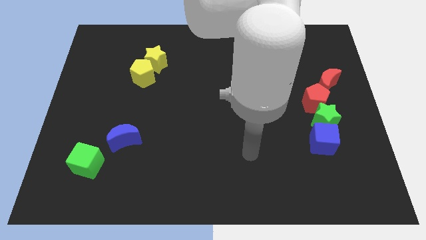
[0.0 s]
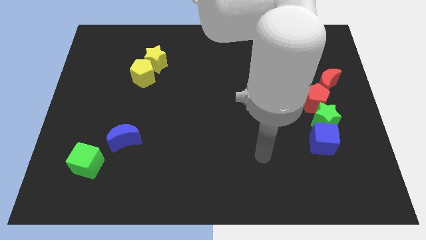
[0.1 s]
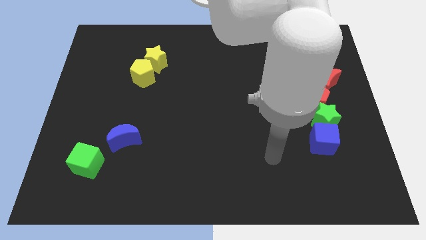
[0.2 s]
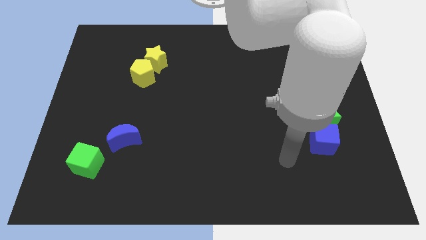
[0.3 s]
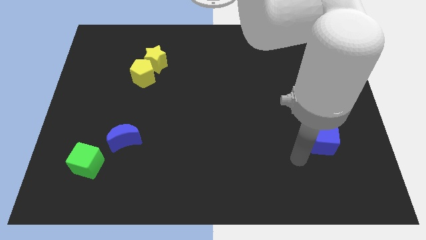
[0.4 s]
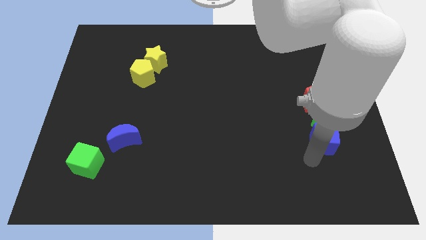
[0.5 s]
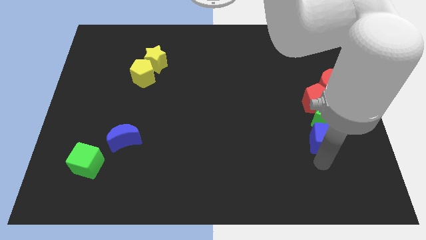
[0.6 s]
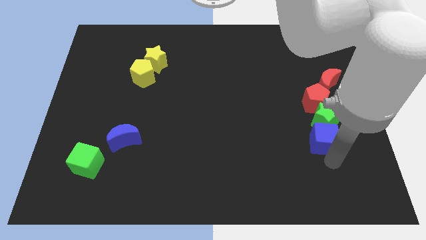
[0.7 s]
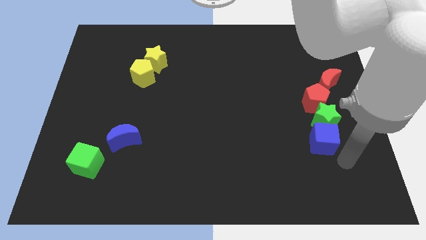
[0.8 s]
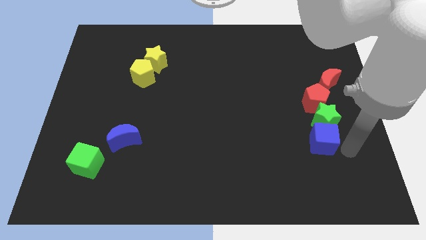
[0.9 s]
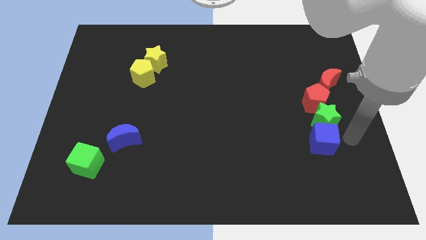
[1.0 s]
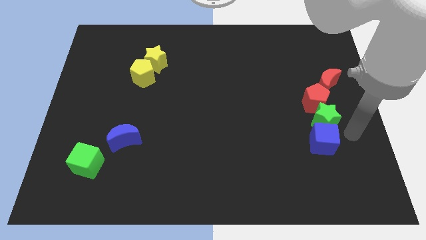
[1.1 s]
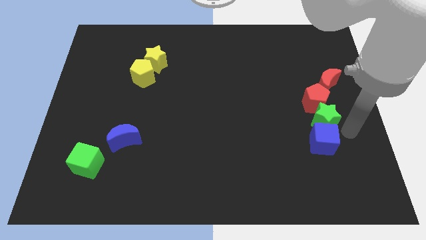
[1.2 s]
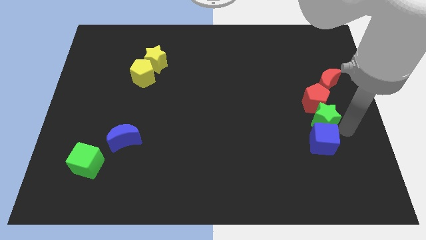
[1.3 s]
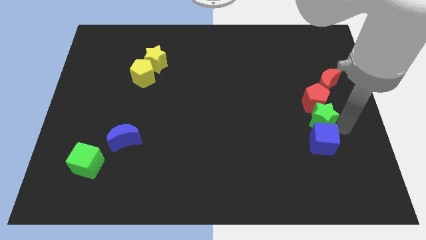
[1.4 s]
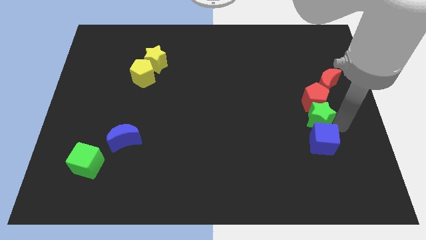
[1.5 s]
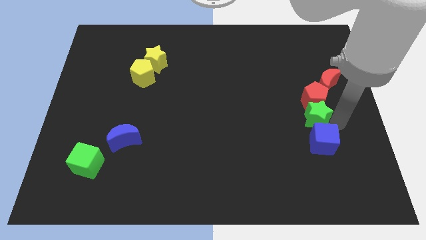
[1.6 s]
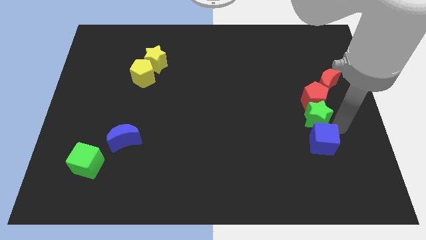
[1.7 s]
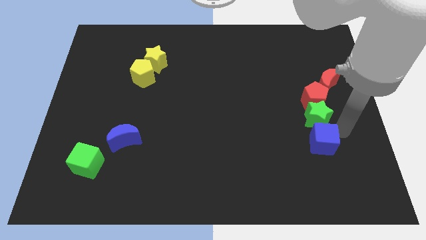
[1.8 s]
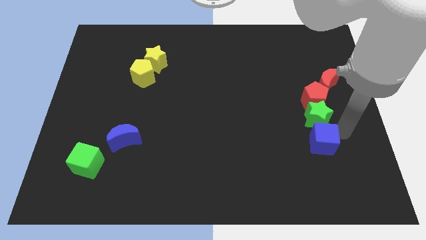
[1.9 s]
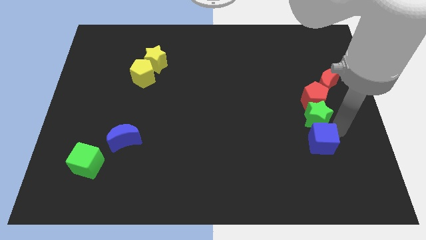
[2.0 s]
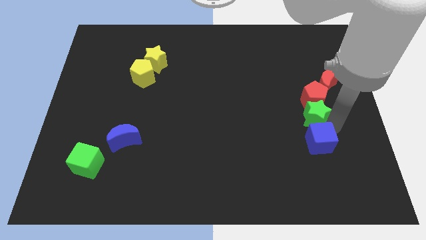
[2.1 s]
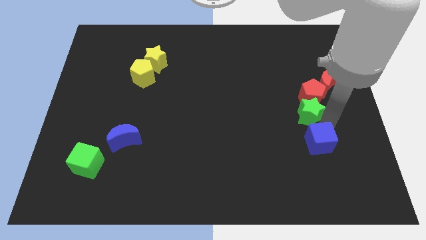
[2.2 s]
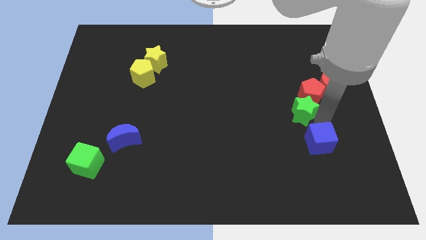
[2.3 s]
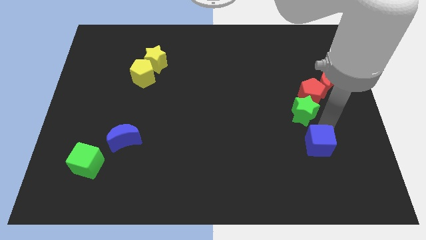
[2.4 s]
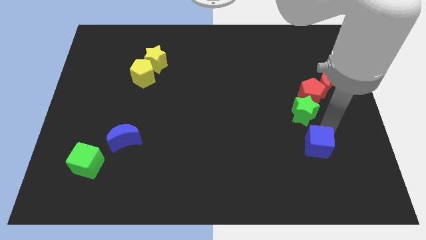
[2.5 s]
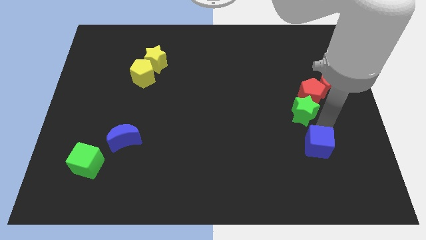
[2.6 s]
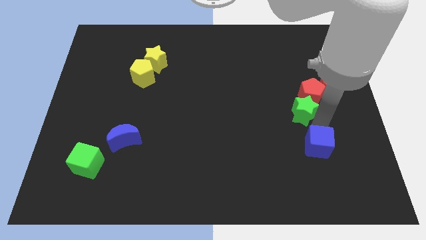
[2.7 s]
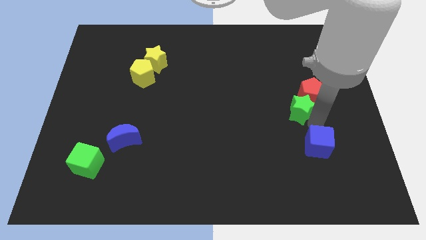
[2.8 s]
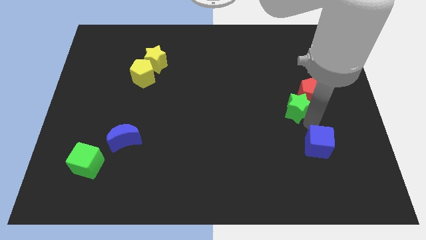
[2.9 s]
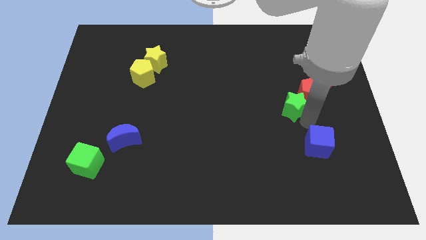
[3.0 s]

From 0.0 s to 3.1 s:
push the green star a bit upwards and to the left diagonally

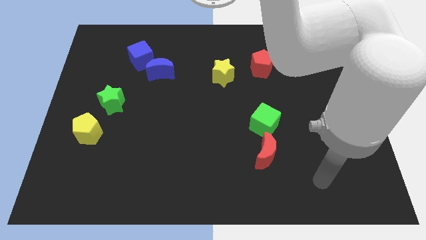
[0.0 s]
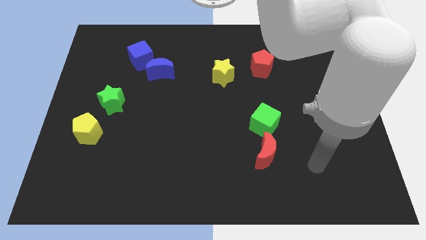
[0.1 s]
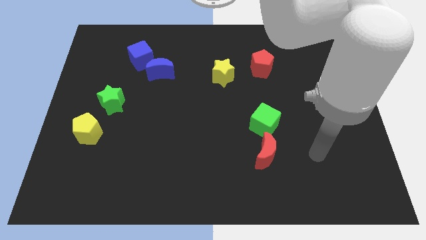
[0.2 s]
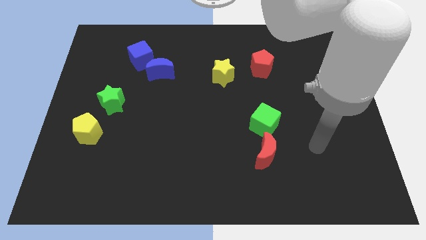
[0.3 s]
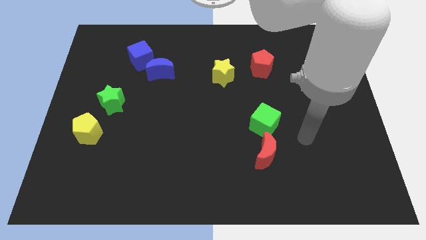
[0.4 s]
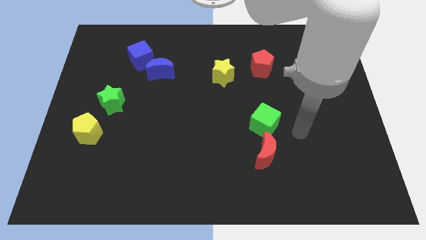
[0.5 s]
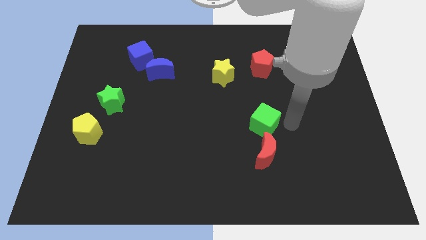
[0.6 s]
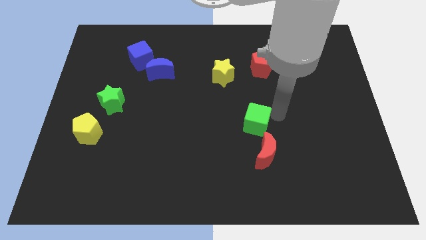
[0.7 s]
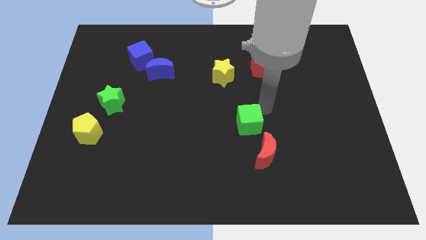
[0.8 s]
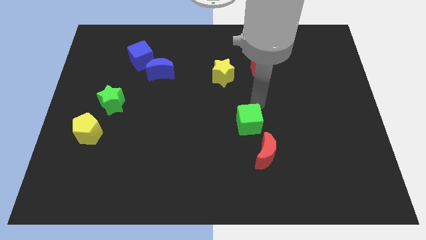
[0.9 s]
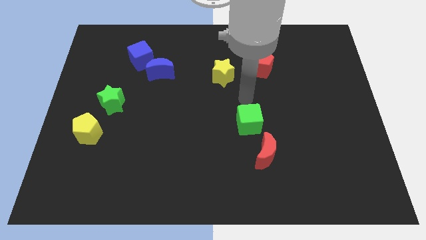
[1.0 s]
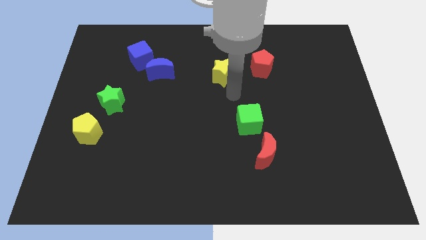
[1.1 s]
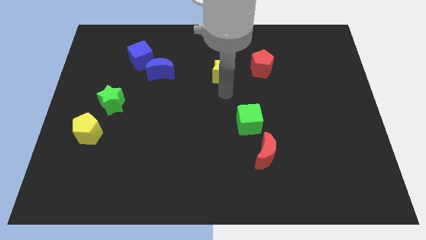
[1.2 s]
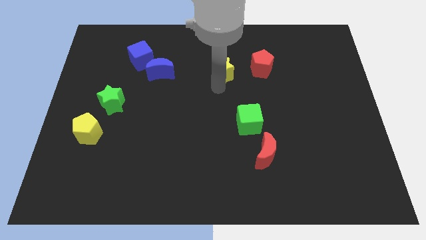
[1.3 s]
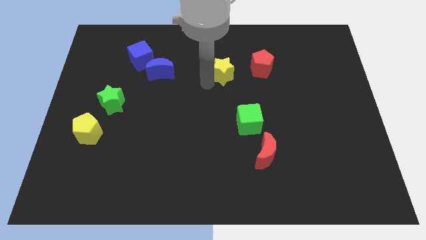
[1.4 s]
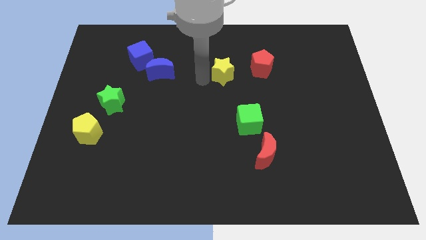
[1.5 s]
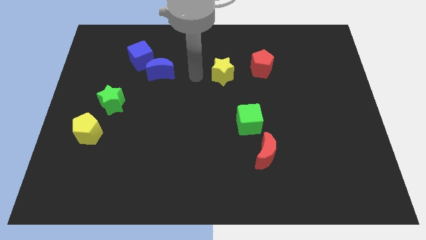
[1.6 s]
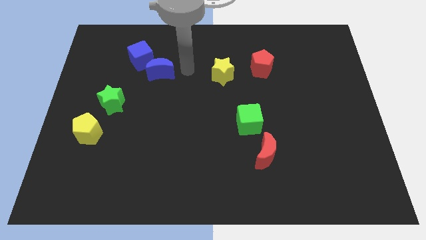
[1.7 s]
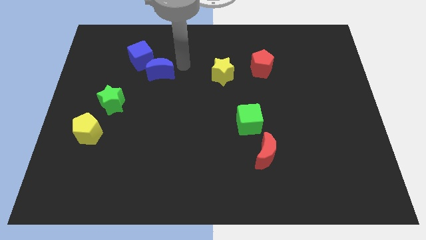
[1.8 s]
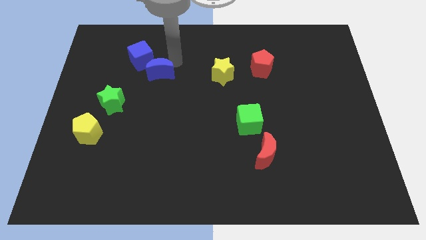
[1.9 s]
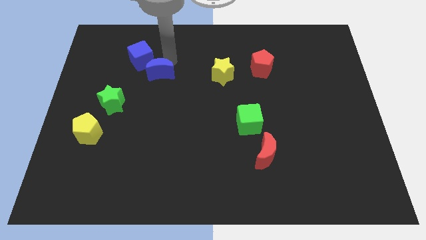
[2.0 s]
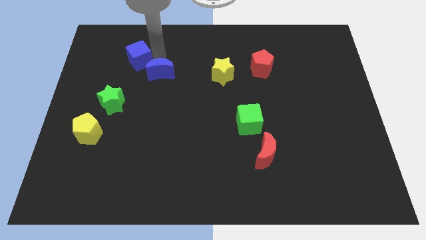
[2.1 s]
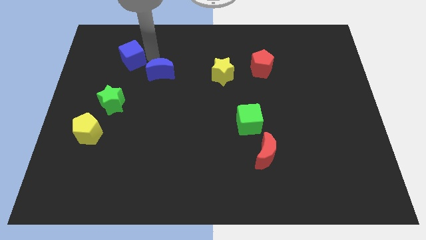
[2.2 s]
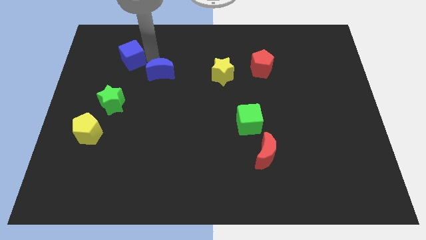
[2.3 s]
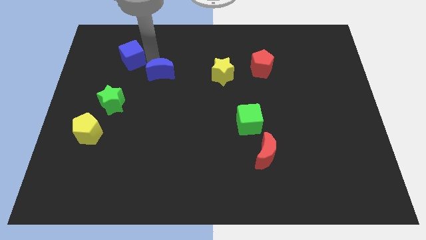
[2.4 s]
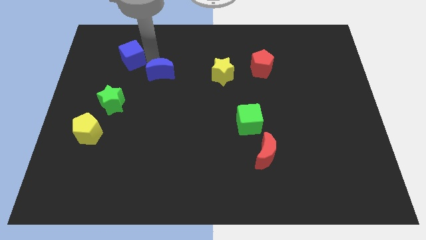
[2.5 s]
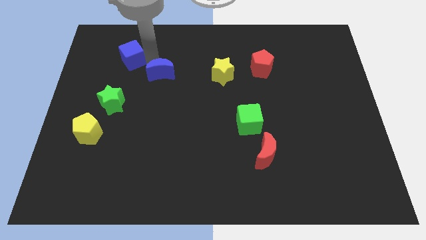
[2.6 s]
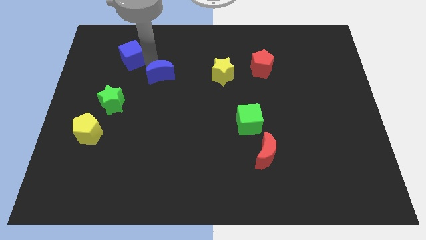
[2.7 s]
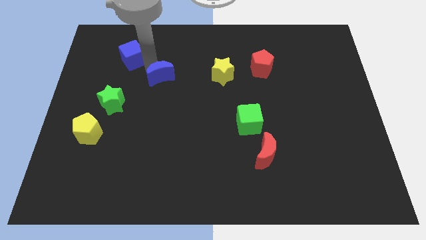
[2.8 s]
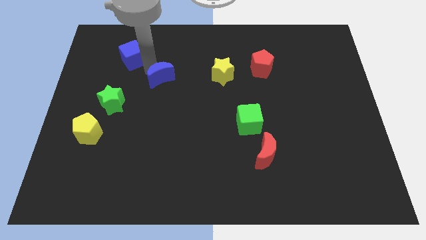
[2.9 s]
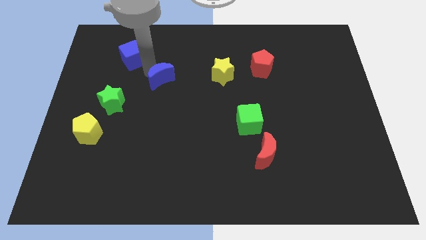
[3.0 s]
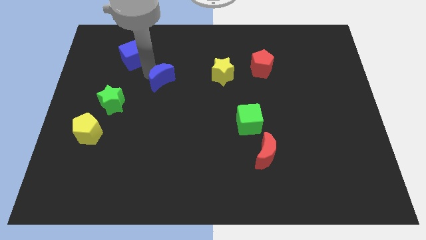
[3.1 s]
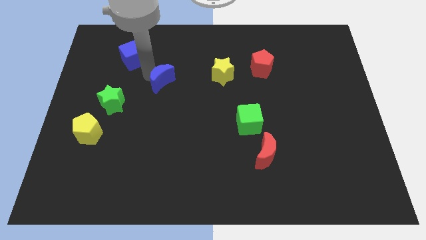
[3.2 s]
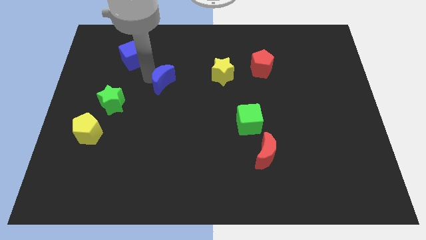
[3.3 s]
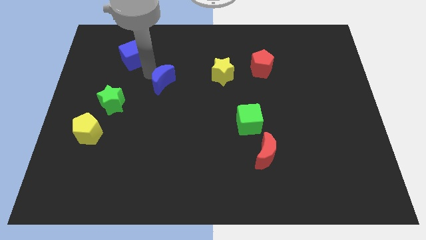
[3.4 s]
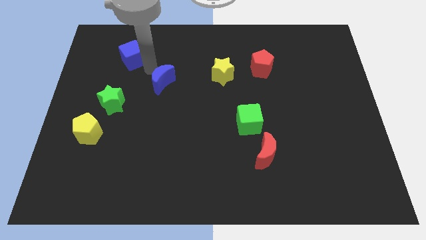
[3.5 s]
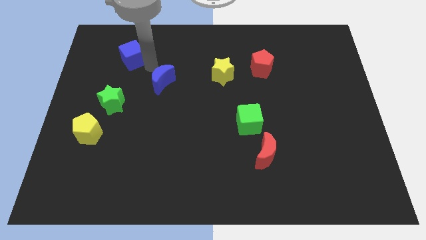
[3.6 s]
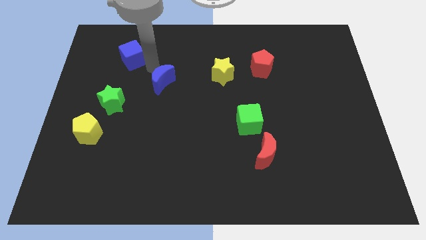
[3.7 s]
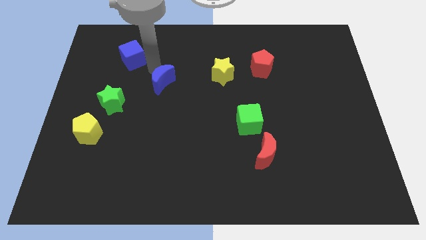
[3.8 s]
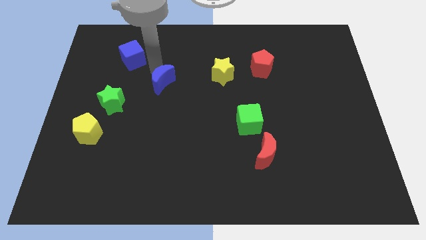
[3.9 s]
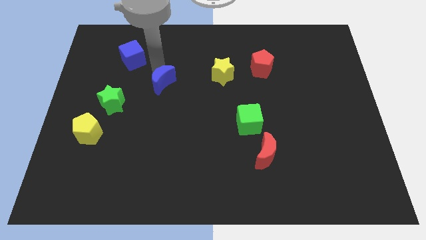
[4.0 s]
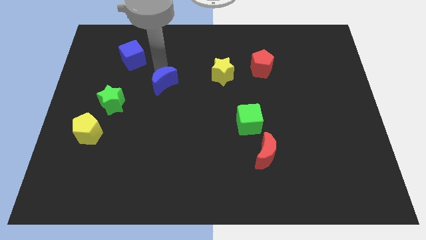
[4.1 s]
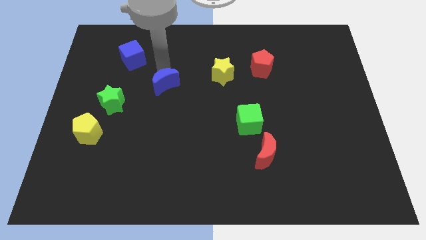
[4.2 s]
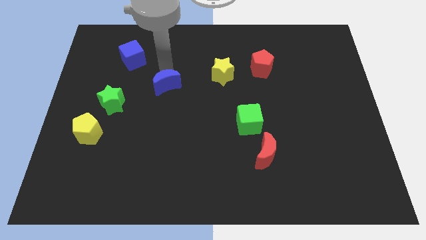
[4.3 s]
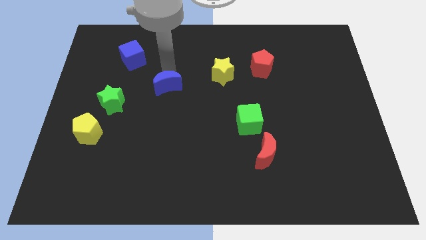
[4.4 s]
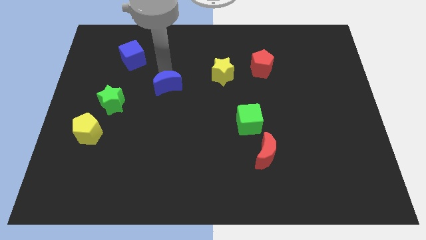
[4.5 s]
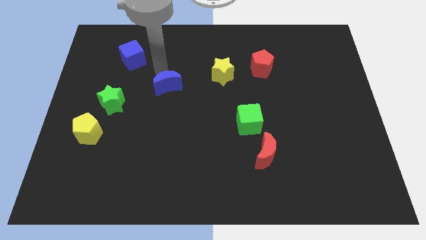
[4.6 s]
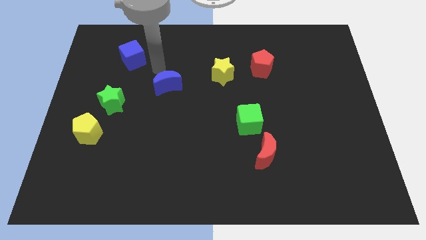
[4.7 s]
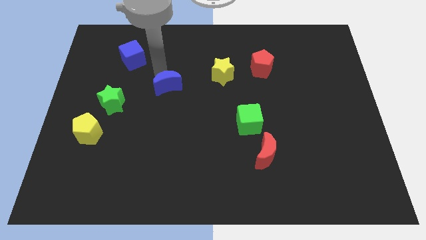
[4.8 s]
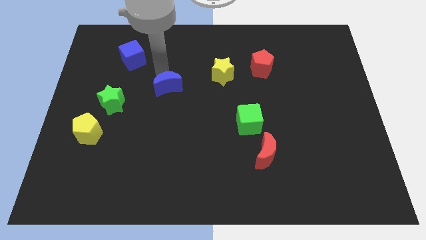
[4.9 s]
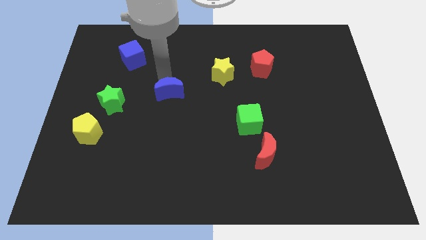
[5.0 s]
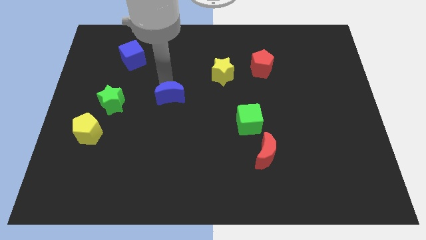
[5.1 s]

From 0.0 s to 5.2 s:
slightly slide the blue moon down and right
